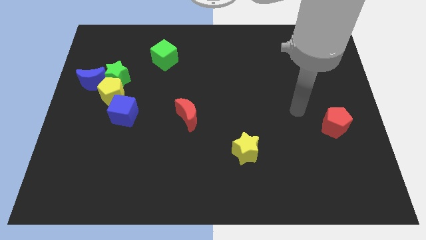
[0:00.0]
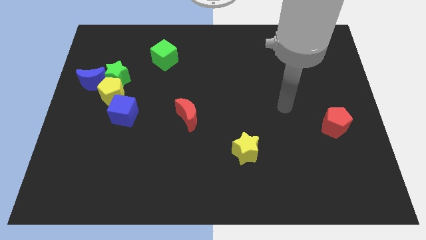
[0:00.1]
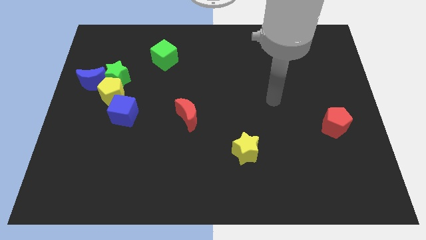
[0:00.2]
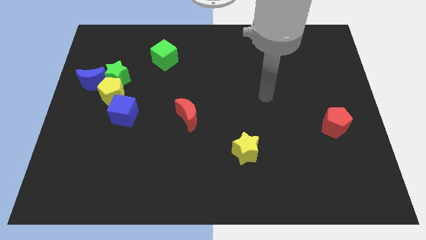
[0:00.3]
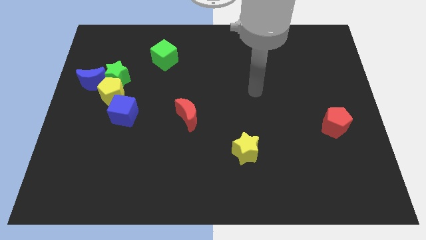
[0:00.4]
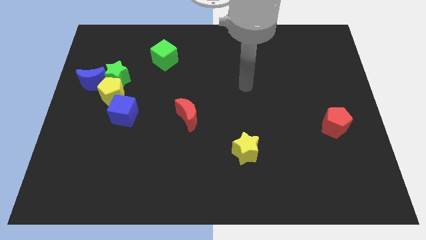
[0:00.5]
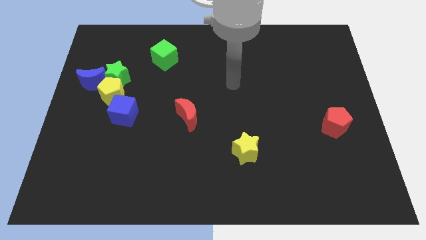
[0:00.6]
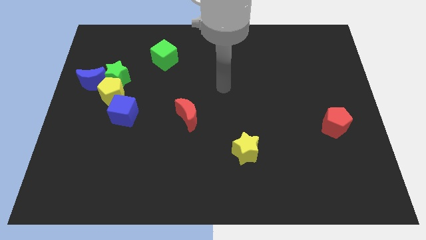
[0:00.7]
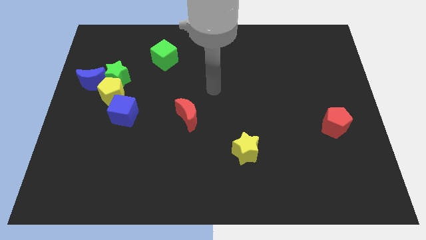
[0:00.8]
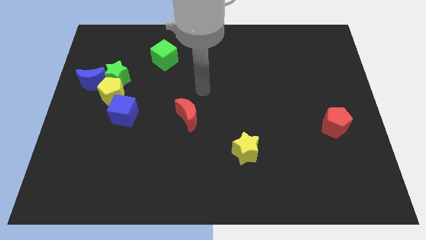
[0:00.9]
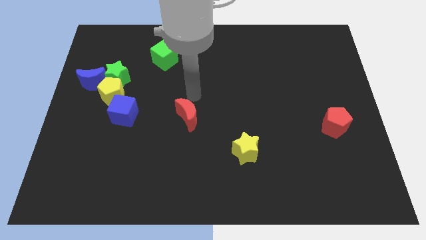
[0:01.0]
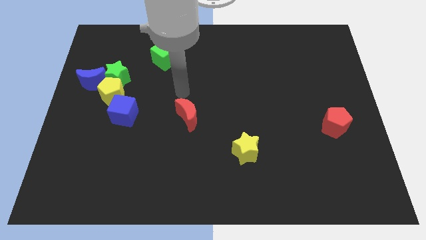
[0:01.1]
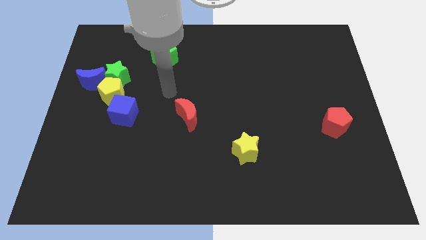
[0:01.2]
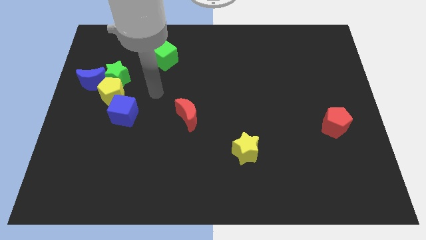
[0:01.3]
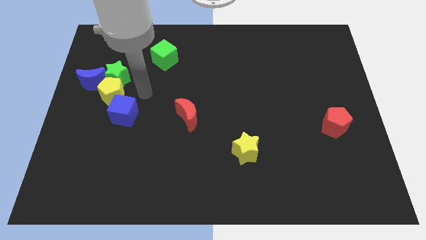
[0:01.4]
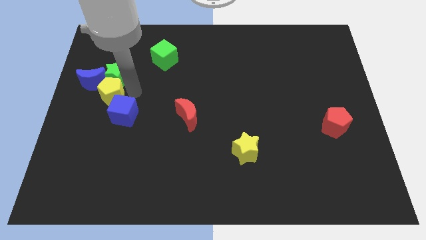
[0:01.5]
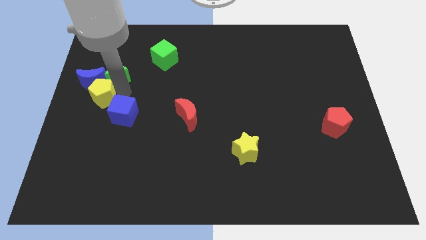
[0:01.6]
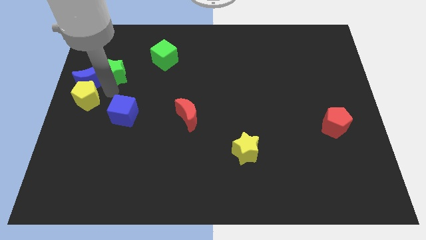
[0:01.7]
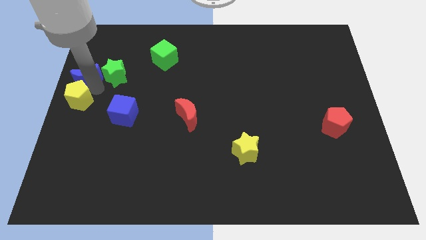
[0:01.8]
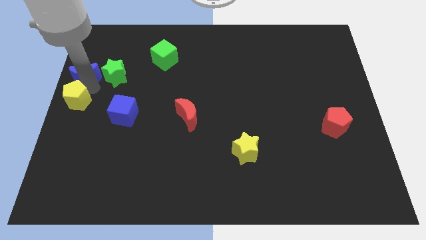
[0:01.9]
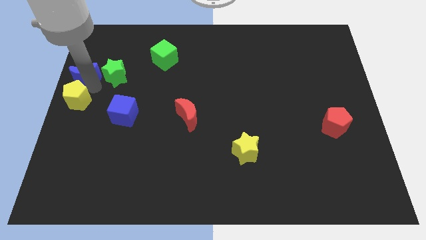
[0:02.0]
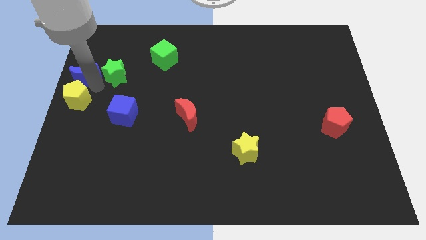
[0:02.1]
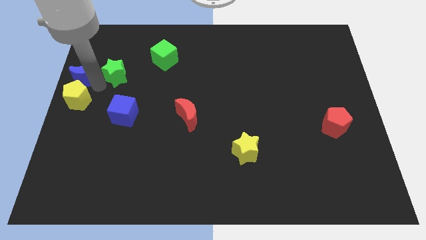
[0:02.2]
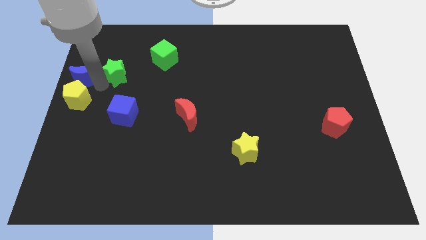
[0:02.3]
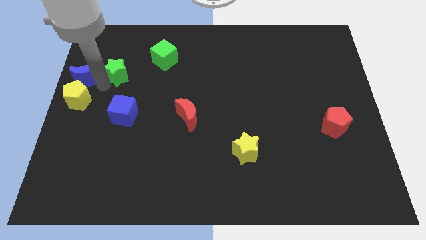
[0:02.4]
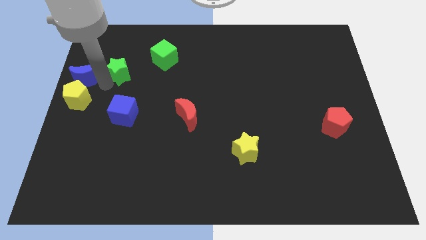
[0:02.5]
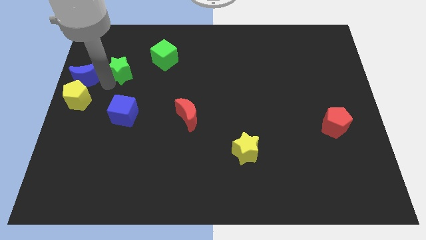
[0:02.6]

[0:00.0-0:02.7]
separate the green star from the yellow pentagon and blue moon

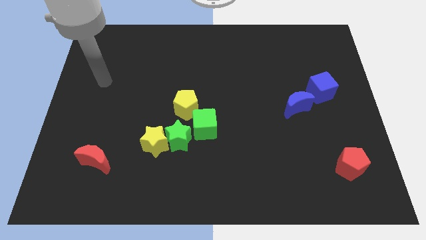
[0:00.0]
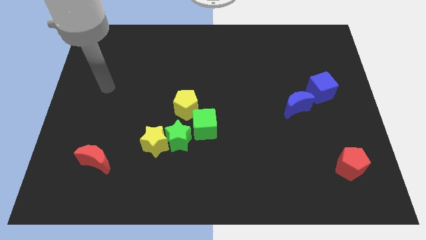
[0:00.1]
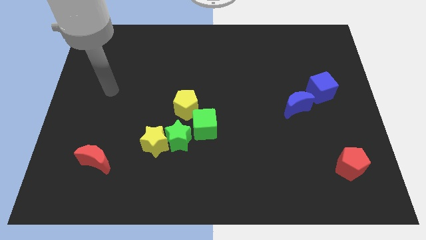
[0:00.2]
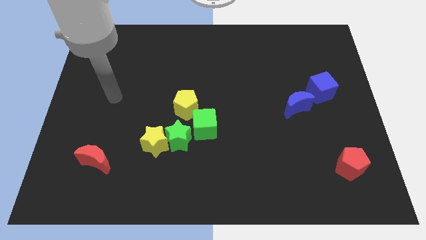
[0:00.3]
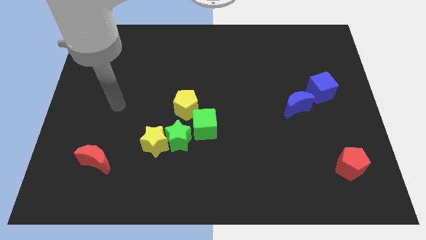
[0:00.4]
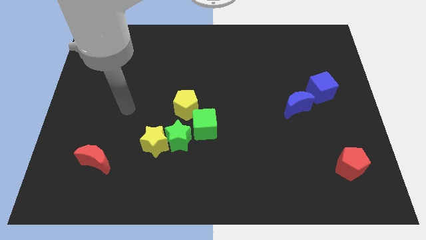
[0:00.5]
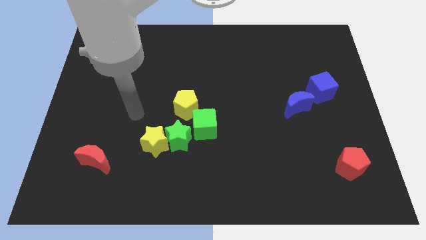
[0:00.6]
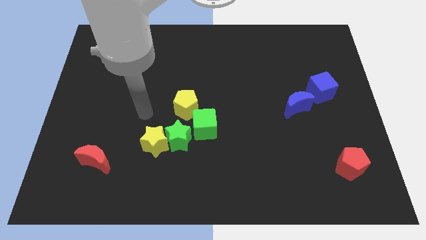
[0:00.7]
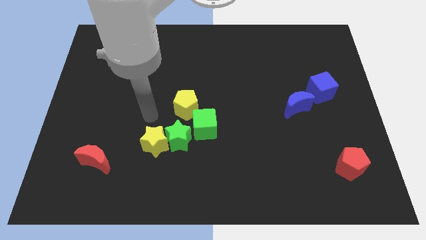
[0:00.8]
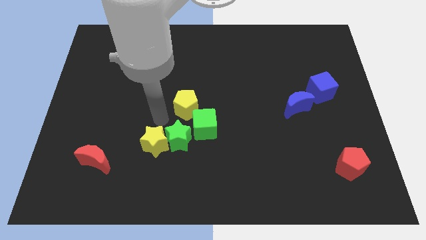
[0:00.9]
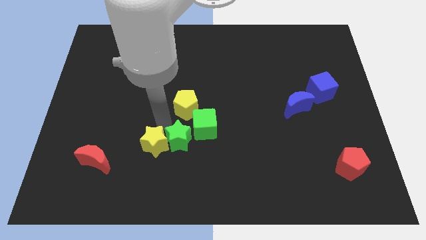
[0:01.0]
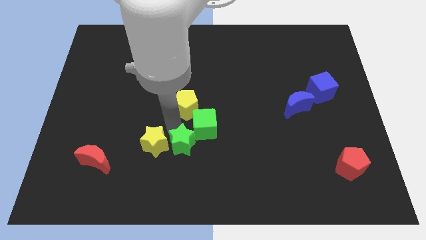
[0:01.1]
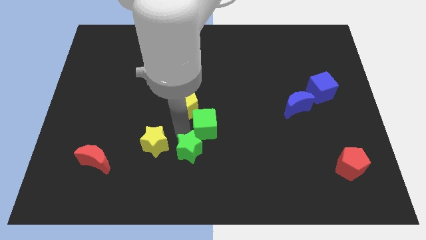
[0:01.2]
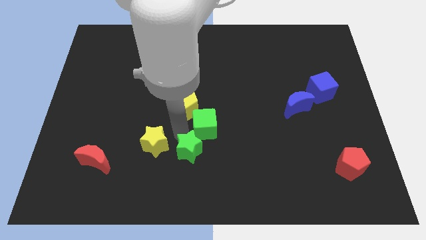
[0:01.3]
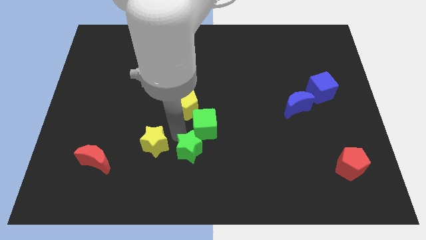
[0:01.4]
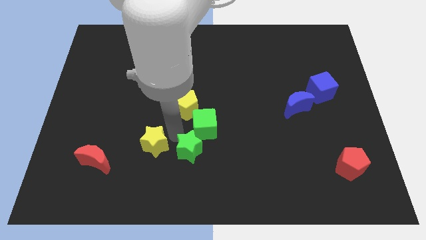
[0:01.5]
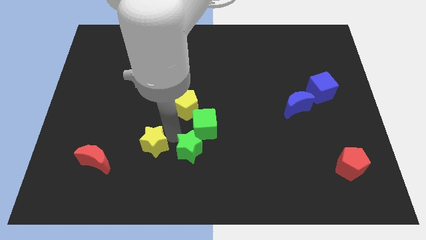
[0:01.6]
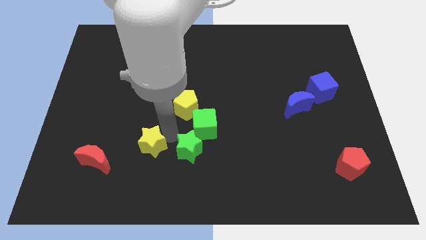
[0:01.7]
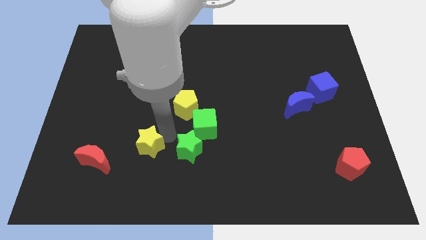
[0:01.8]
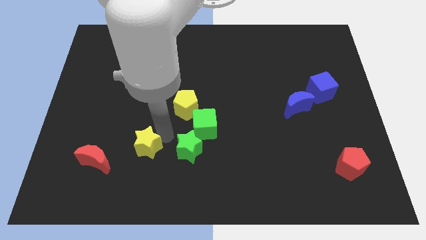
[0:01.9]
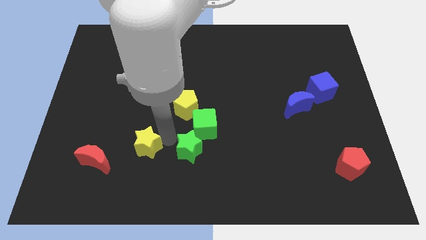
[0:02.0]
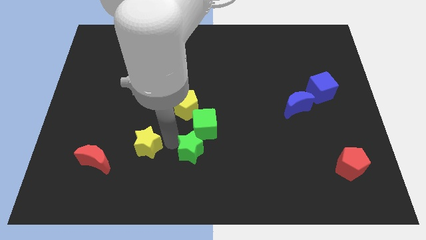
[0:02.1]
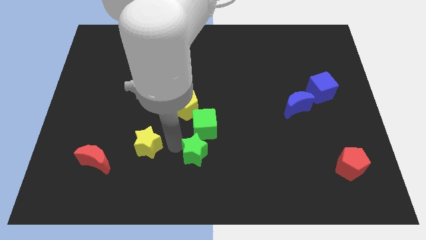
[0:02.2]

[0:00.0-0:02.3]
move the yellow star away from the green star

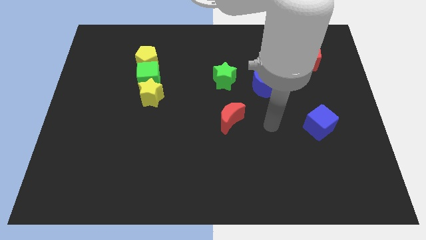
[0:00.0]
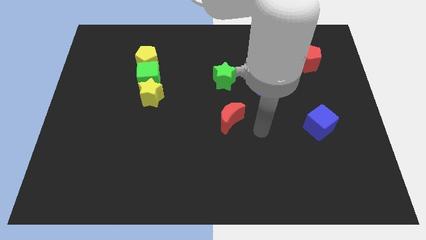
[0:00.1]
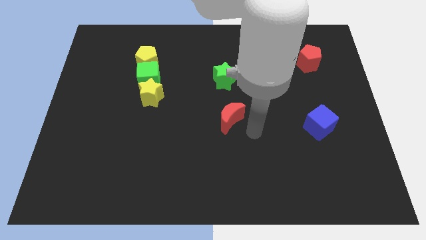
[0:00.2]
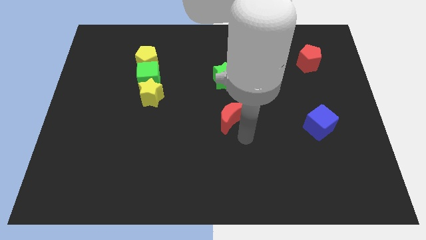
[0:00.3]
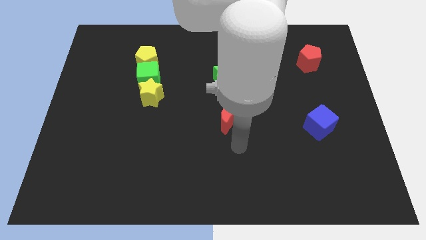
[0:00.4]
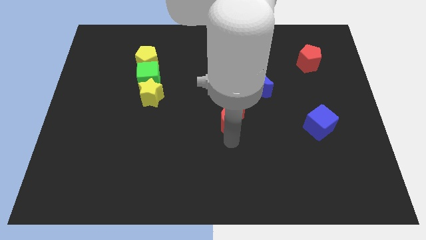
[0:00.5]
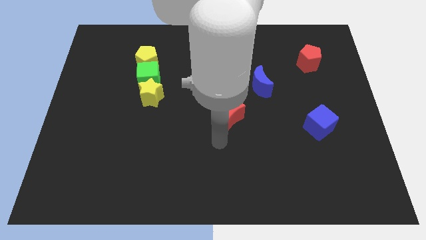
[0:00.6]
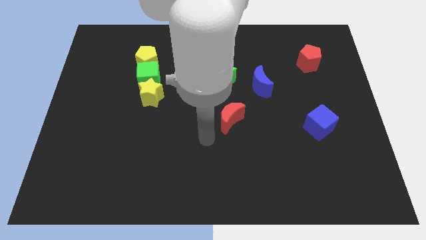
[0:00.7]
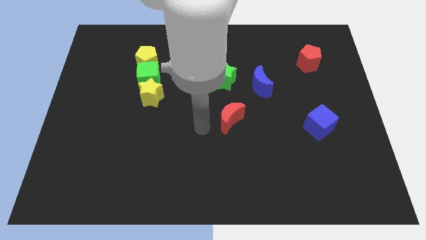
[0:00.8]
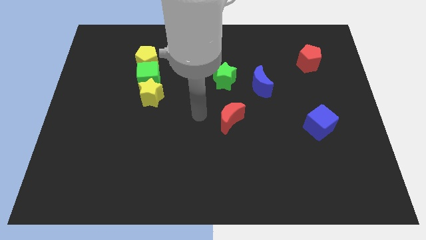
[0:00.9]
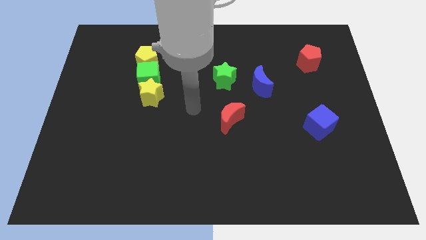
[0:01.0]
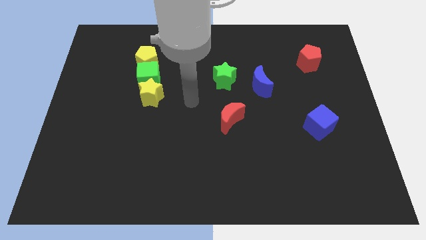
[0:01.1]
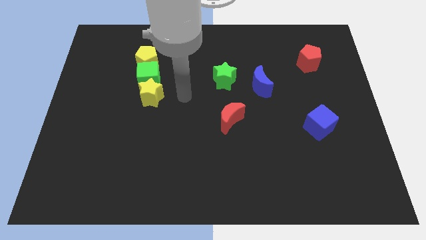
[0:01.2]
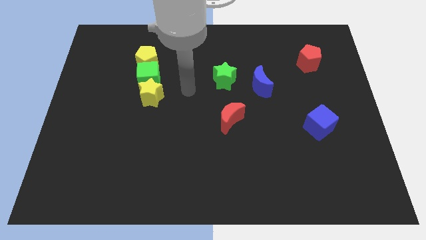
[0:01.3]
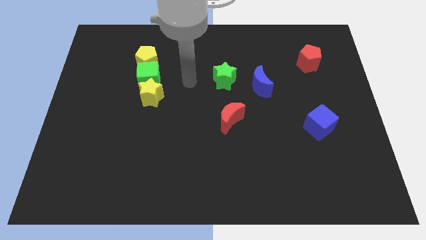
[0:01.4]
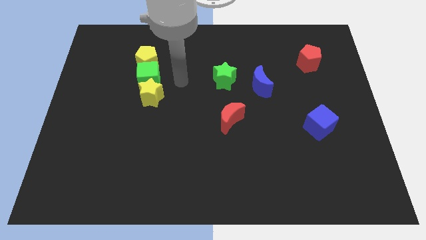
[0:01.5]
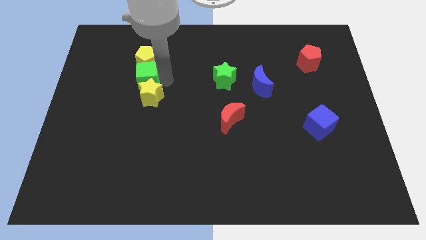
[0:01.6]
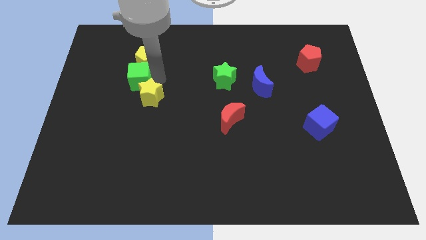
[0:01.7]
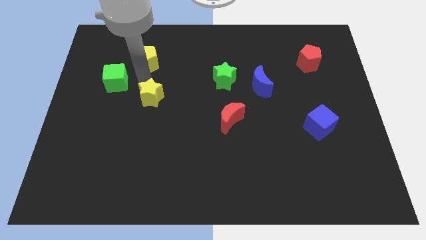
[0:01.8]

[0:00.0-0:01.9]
pull the yellow star apart from the green cube

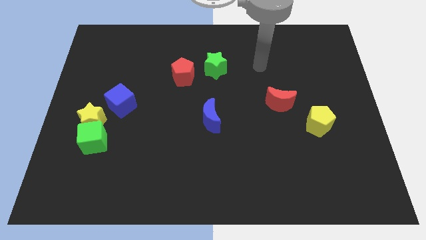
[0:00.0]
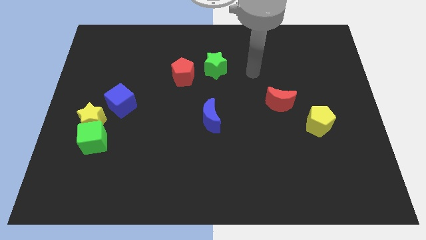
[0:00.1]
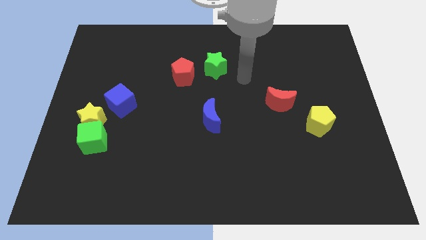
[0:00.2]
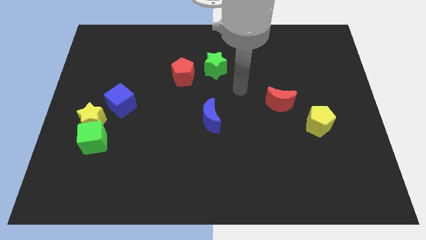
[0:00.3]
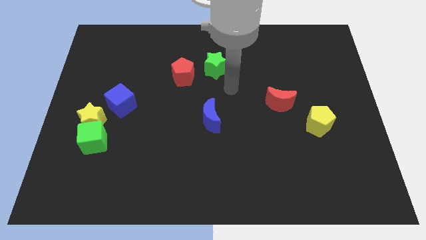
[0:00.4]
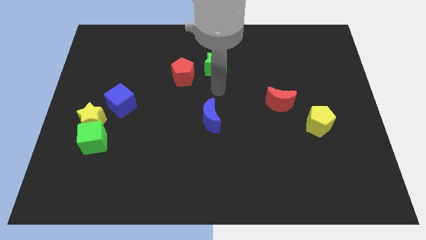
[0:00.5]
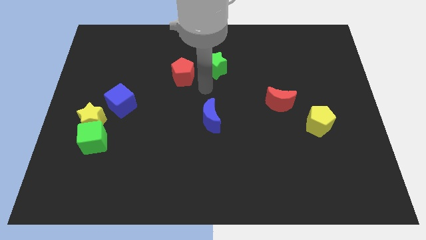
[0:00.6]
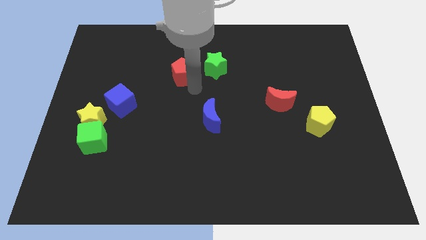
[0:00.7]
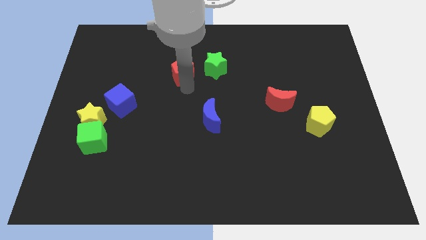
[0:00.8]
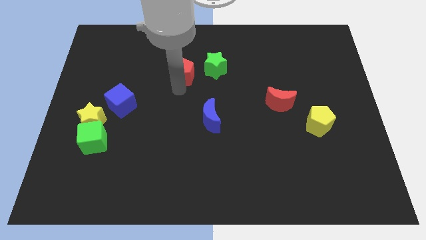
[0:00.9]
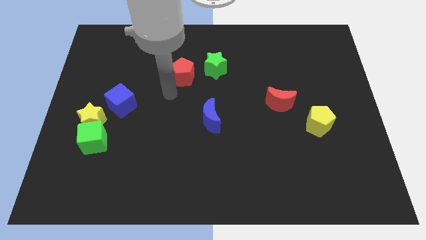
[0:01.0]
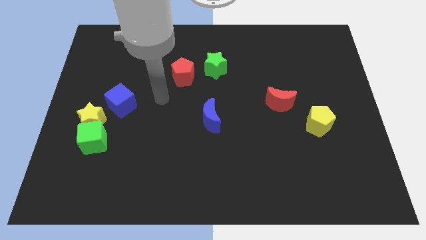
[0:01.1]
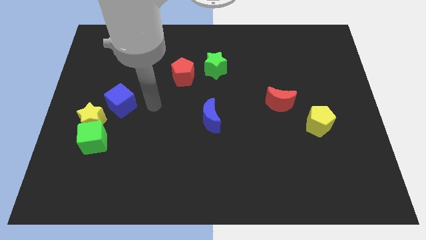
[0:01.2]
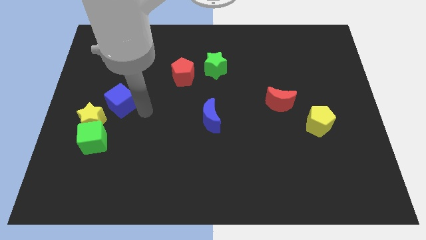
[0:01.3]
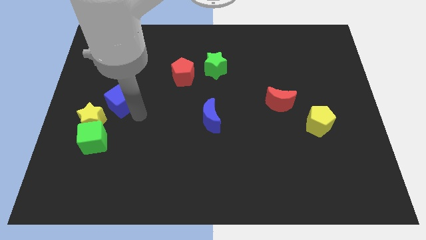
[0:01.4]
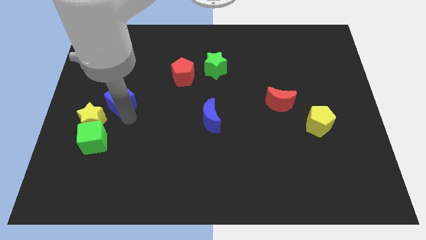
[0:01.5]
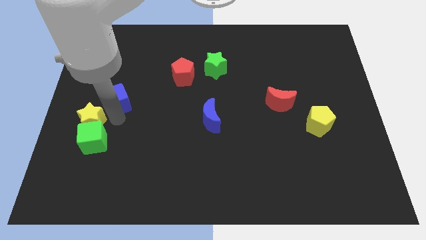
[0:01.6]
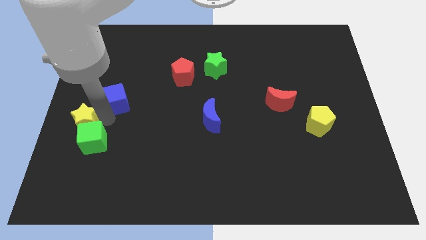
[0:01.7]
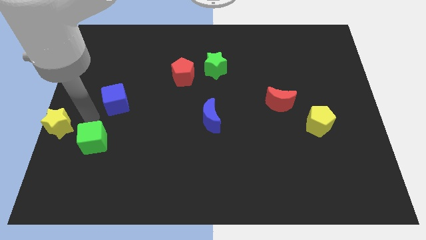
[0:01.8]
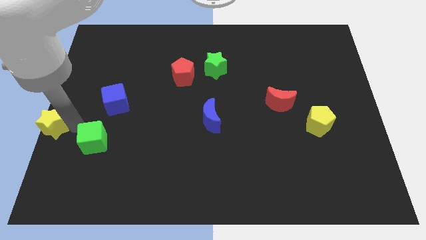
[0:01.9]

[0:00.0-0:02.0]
separate the green cube from the yellow star

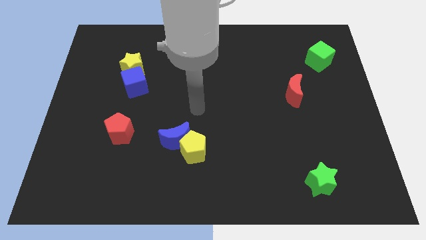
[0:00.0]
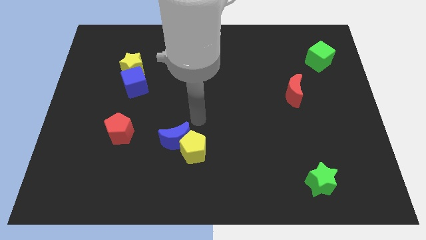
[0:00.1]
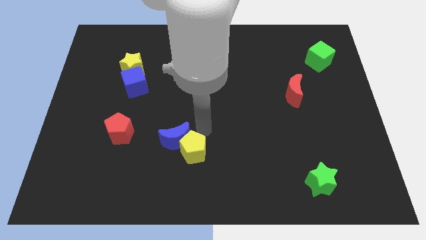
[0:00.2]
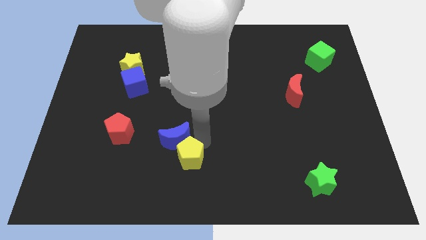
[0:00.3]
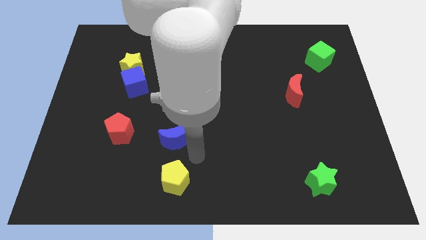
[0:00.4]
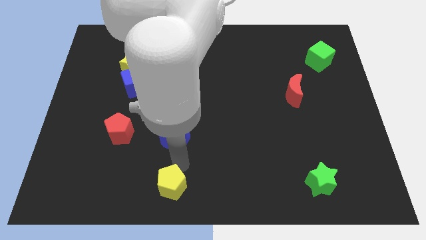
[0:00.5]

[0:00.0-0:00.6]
move the blue moon away from the yellow pentagon
